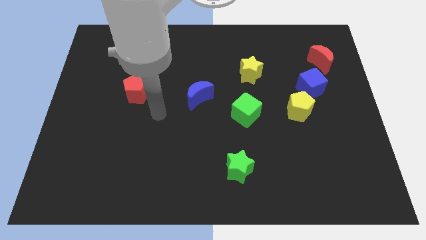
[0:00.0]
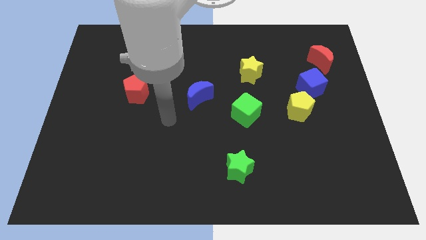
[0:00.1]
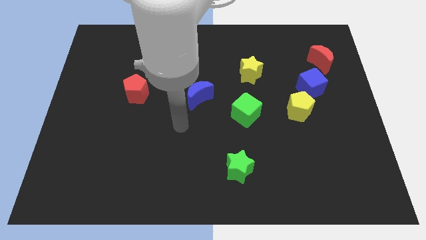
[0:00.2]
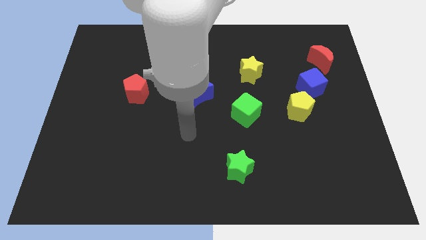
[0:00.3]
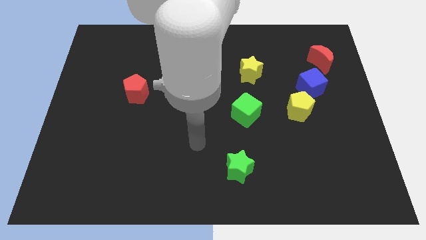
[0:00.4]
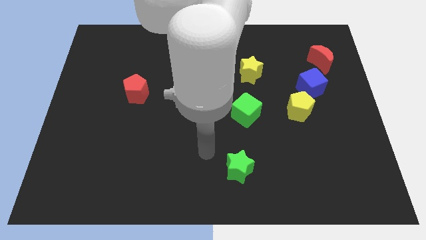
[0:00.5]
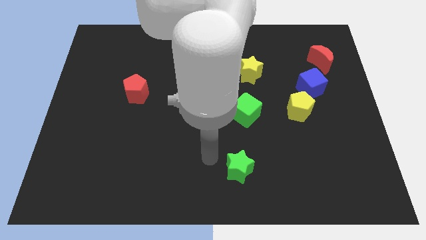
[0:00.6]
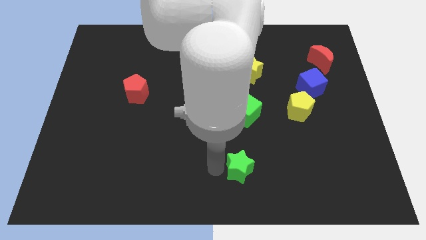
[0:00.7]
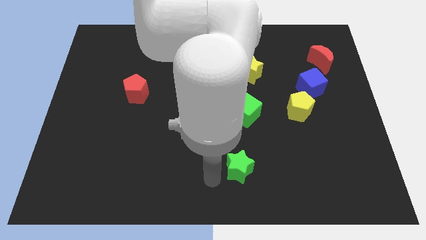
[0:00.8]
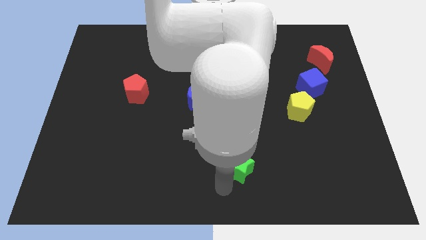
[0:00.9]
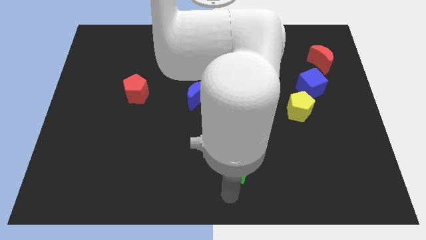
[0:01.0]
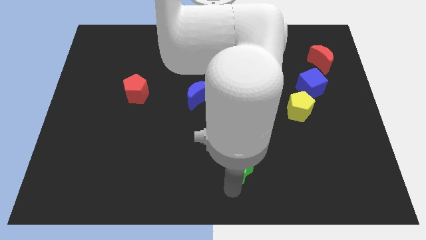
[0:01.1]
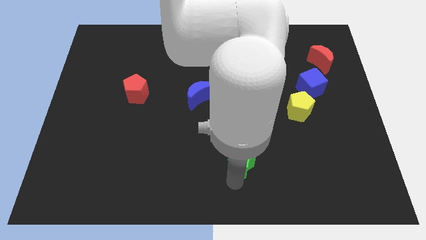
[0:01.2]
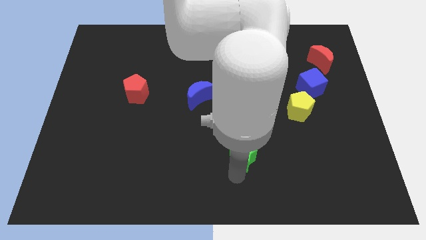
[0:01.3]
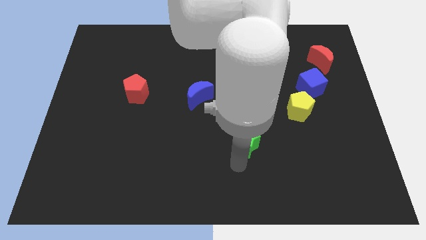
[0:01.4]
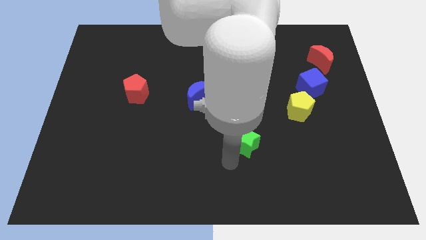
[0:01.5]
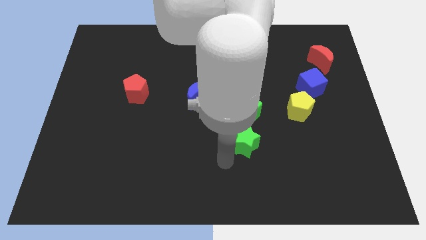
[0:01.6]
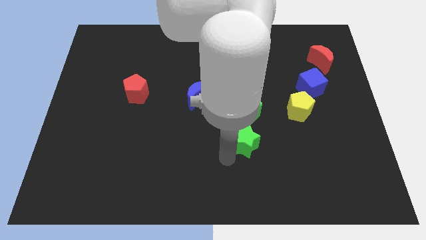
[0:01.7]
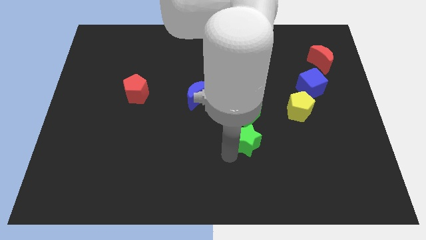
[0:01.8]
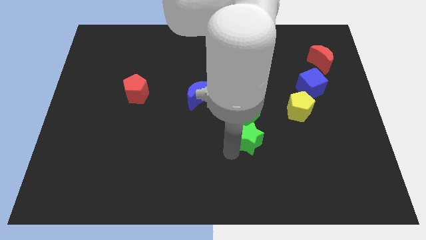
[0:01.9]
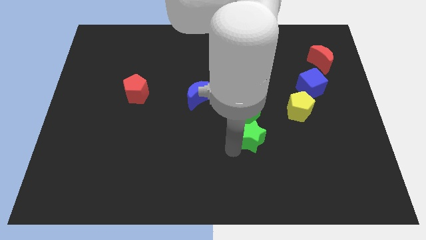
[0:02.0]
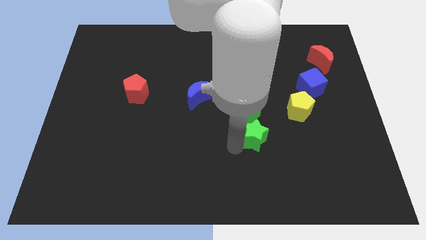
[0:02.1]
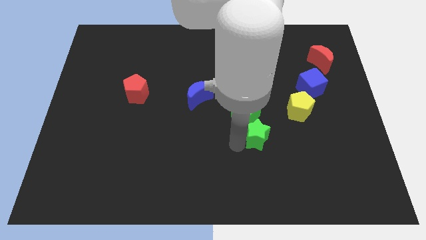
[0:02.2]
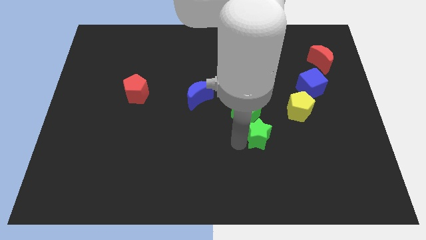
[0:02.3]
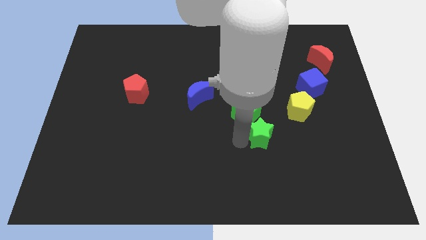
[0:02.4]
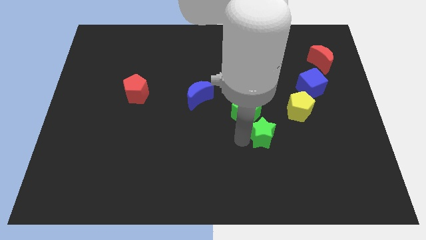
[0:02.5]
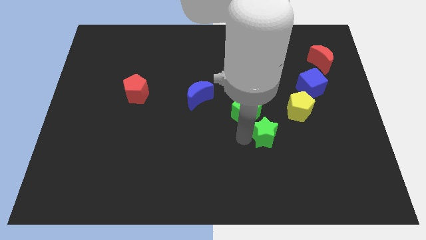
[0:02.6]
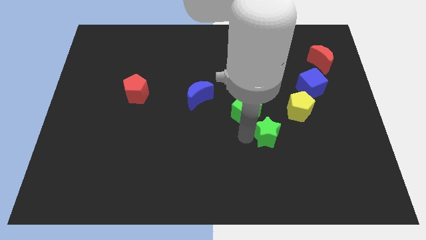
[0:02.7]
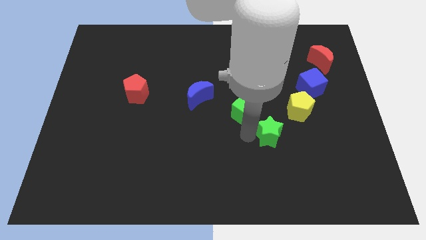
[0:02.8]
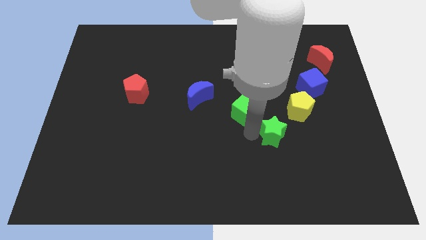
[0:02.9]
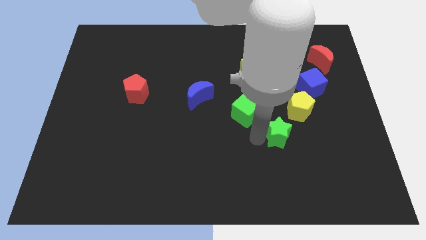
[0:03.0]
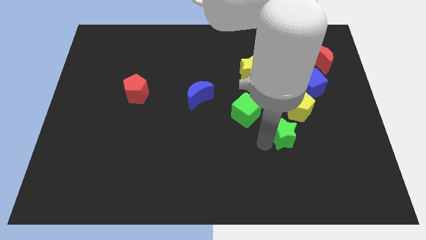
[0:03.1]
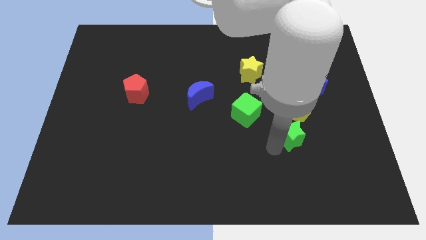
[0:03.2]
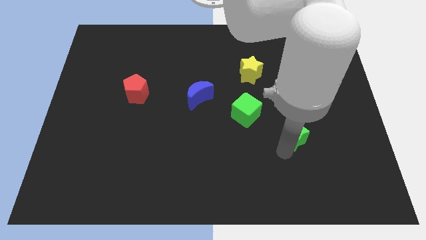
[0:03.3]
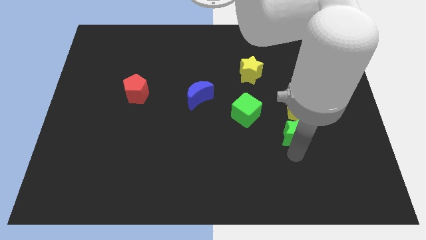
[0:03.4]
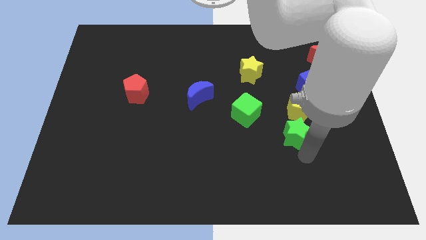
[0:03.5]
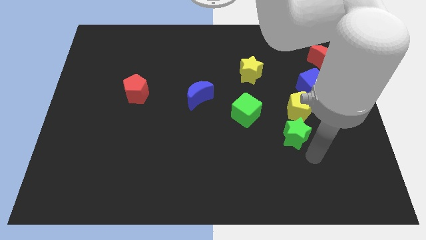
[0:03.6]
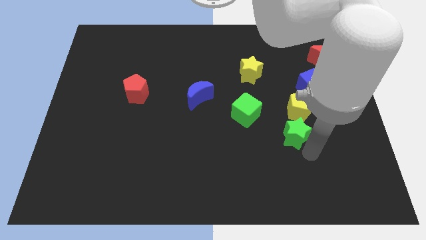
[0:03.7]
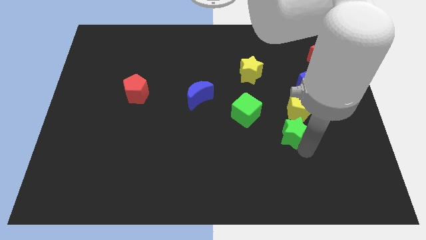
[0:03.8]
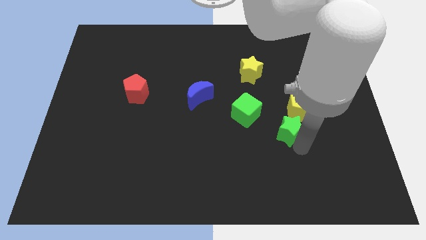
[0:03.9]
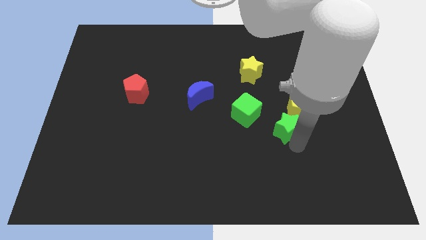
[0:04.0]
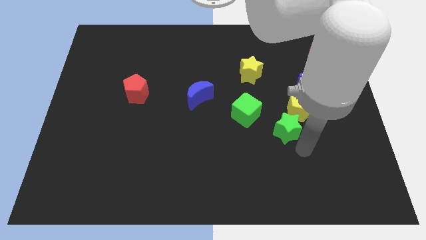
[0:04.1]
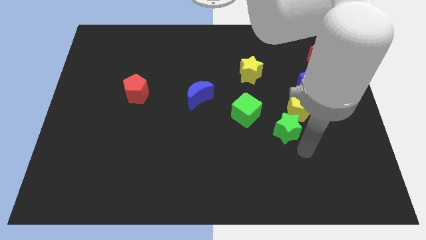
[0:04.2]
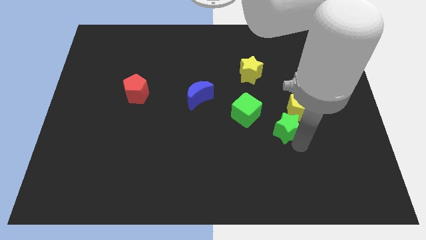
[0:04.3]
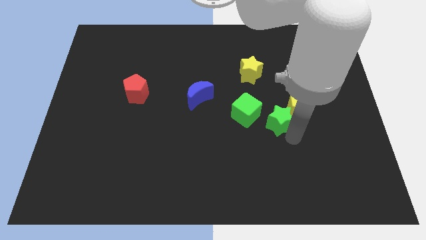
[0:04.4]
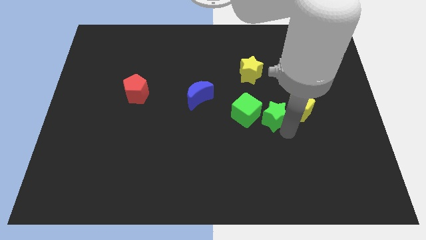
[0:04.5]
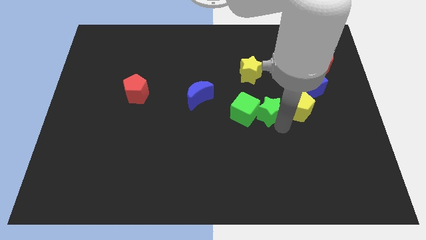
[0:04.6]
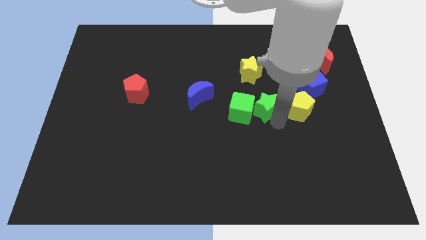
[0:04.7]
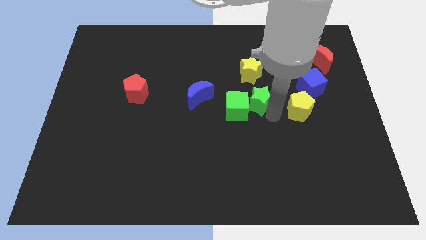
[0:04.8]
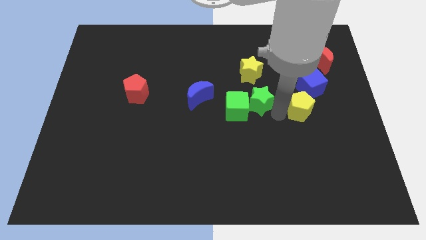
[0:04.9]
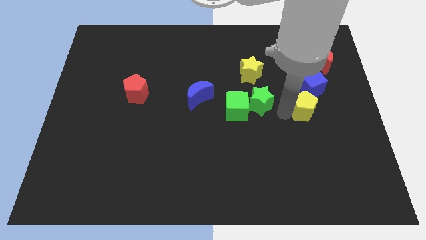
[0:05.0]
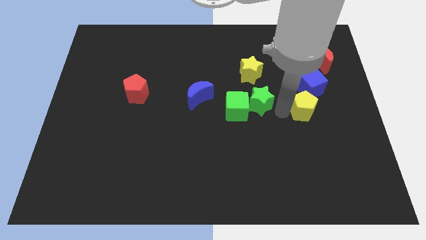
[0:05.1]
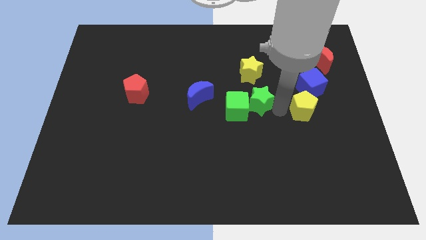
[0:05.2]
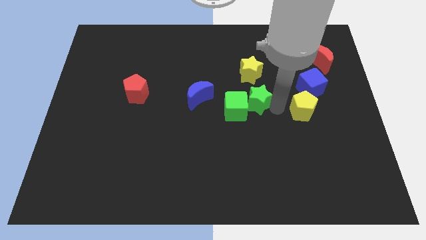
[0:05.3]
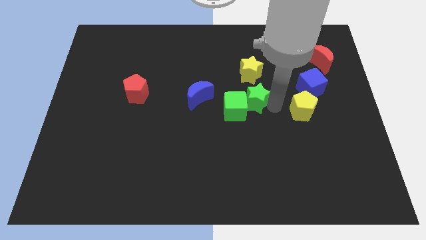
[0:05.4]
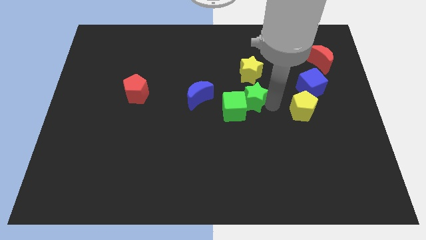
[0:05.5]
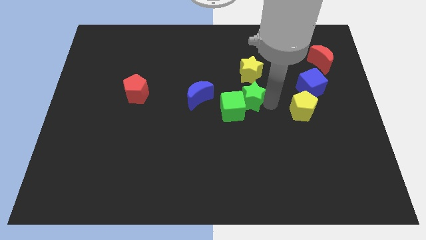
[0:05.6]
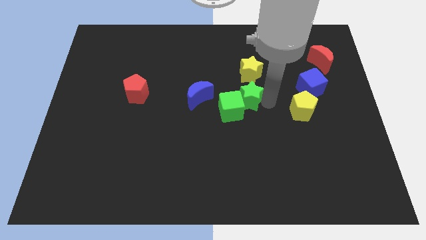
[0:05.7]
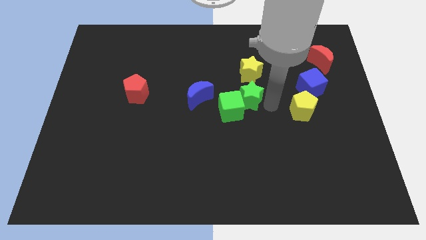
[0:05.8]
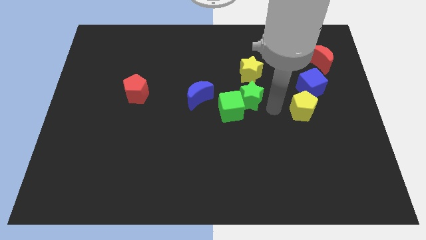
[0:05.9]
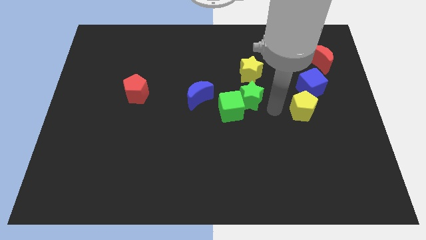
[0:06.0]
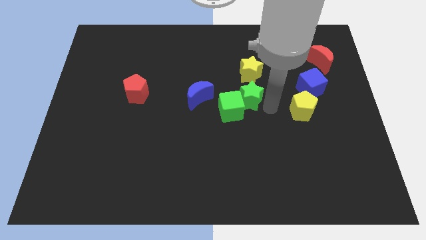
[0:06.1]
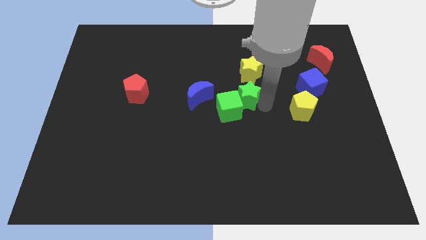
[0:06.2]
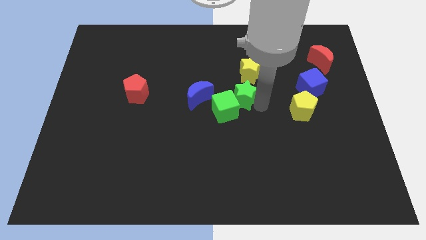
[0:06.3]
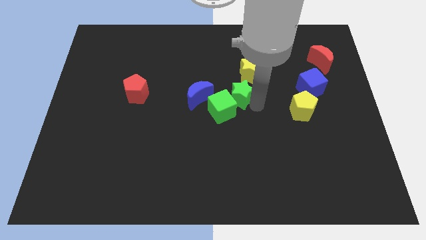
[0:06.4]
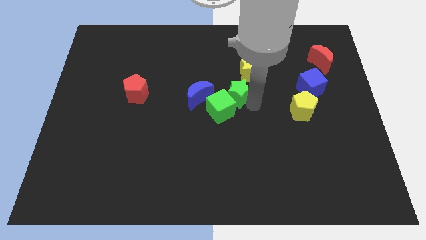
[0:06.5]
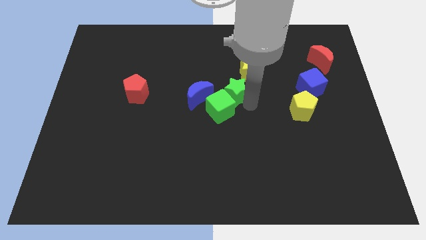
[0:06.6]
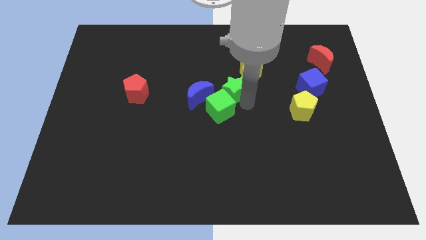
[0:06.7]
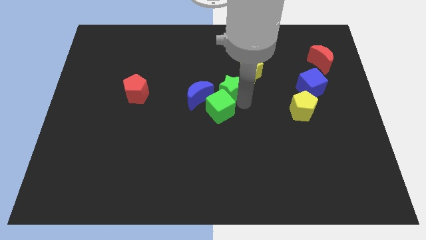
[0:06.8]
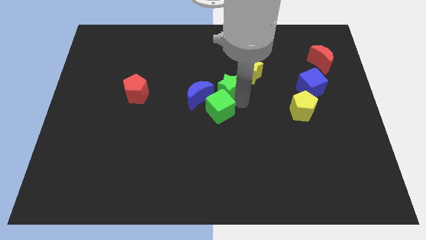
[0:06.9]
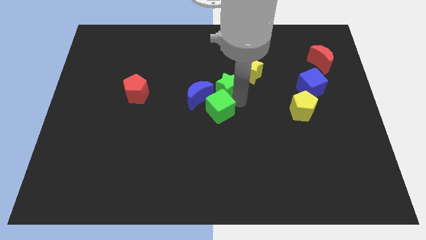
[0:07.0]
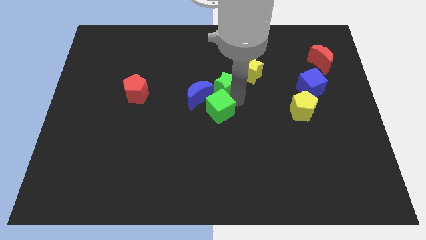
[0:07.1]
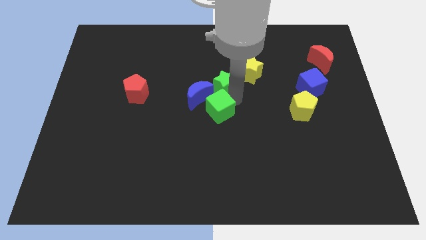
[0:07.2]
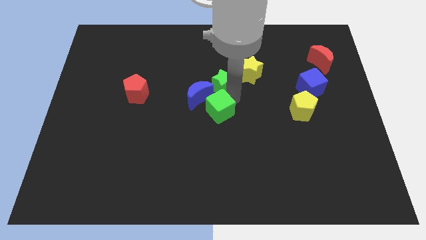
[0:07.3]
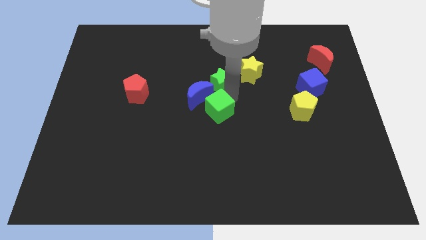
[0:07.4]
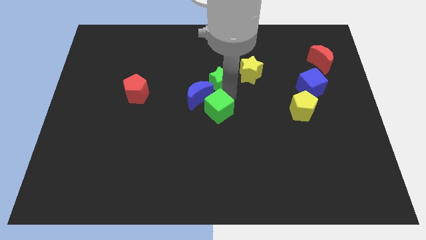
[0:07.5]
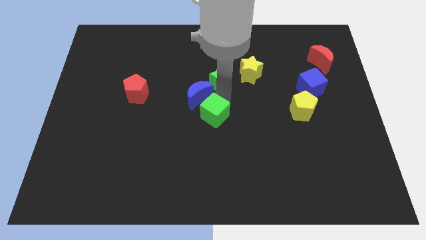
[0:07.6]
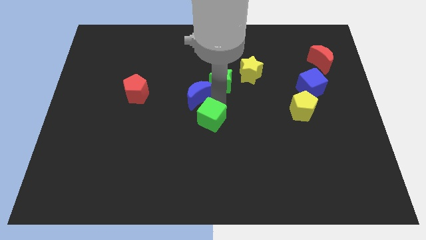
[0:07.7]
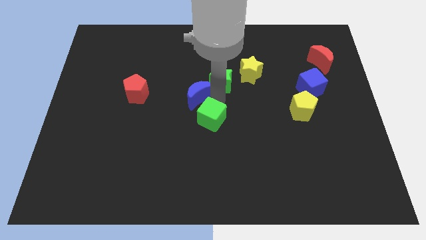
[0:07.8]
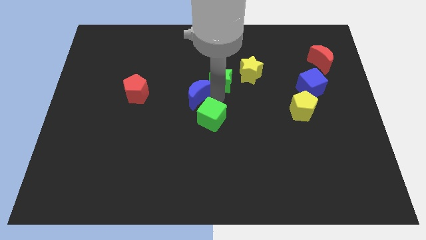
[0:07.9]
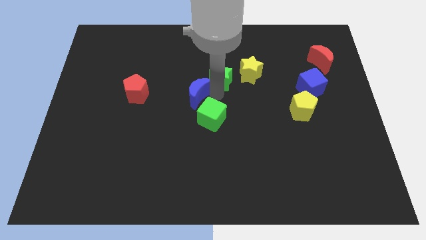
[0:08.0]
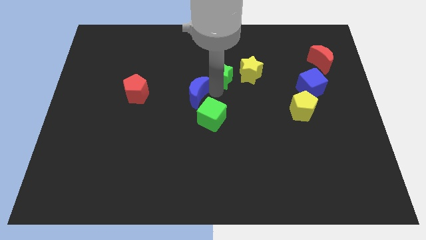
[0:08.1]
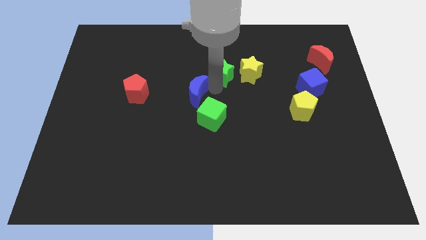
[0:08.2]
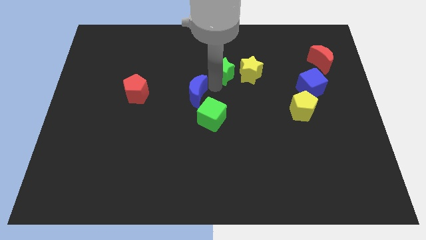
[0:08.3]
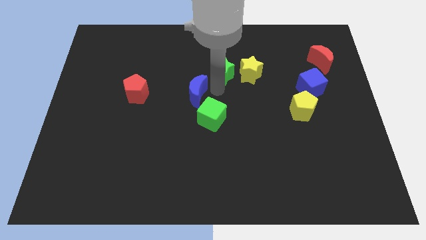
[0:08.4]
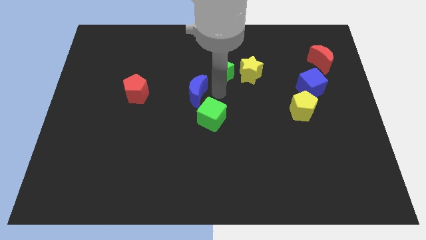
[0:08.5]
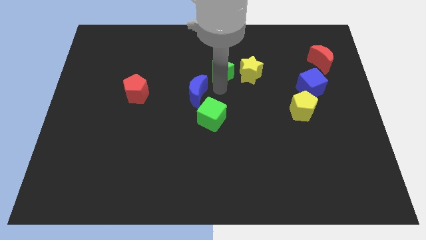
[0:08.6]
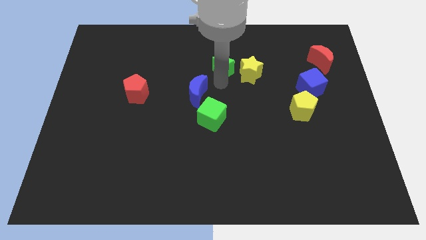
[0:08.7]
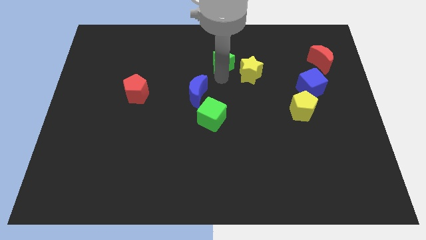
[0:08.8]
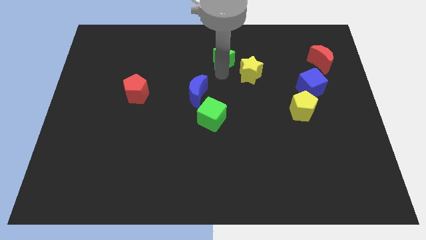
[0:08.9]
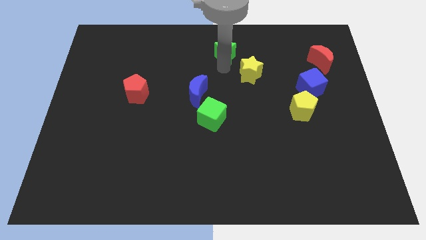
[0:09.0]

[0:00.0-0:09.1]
push the green star to the top side
